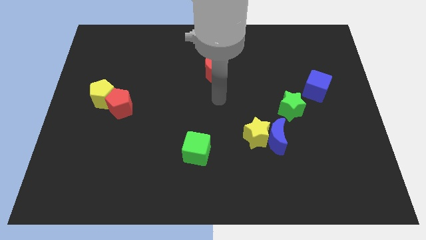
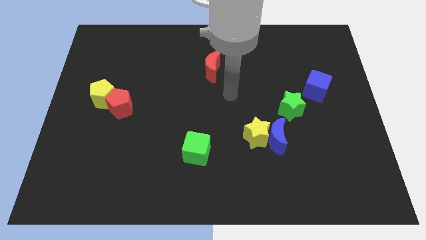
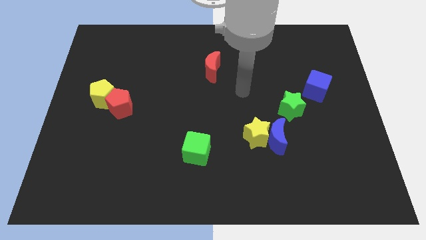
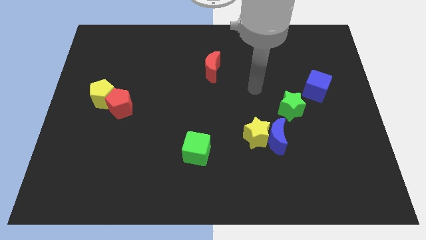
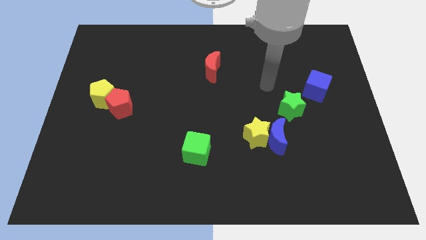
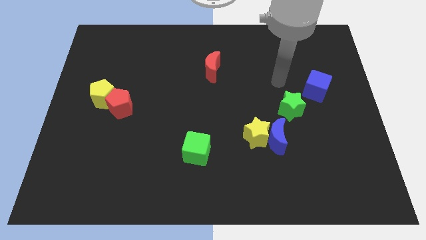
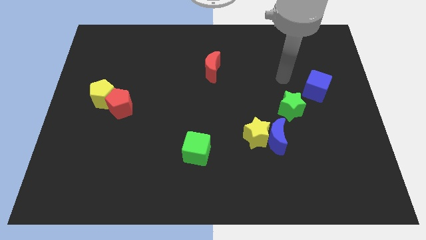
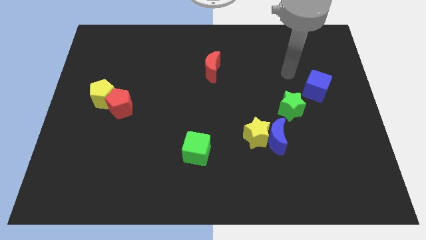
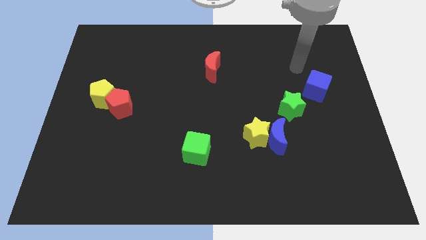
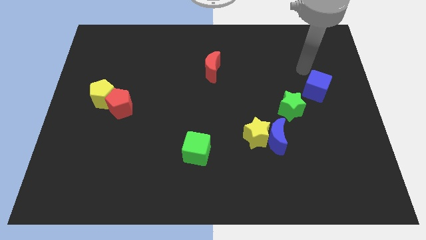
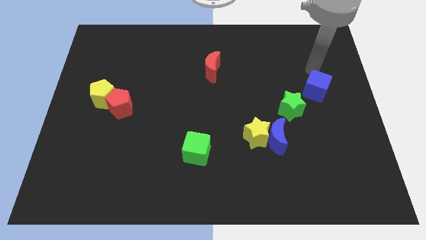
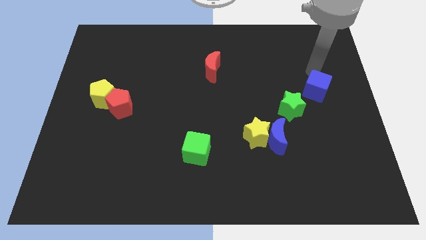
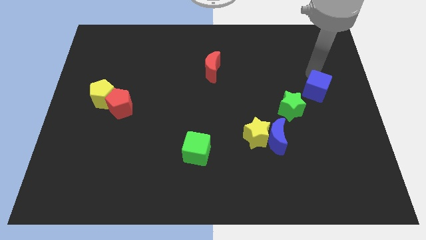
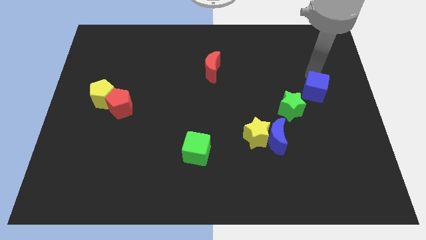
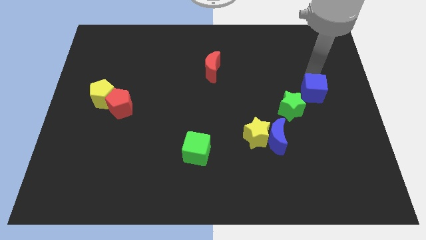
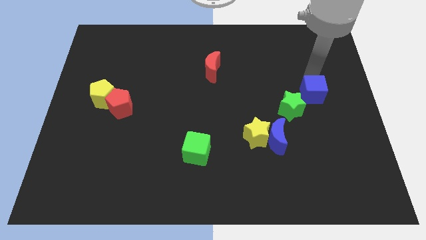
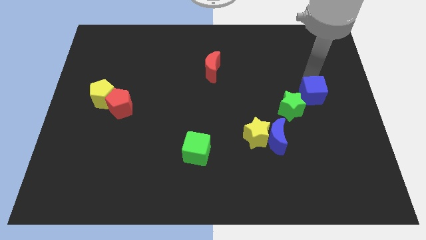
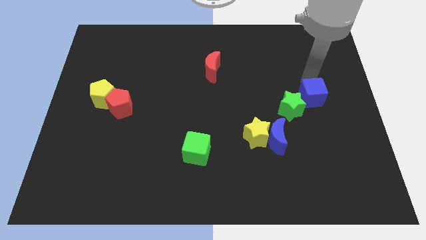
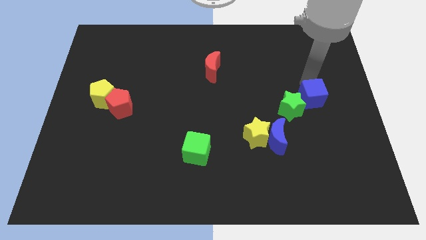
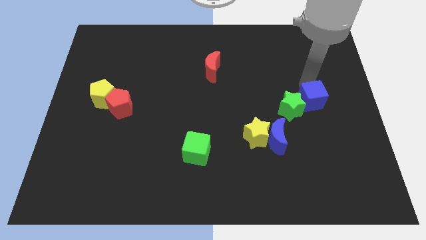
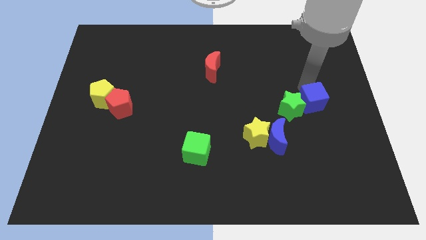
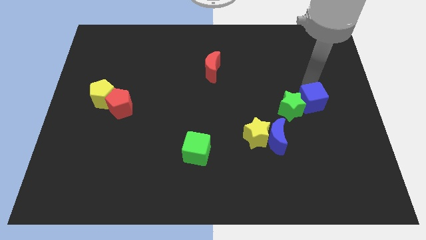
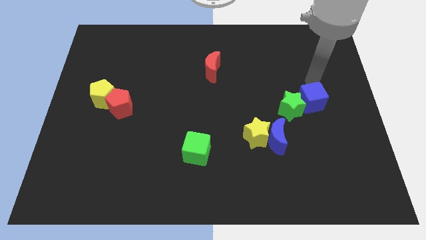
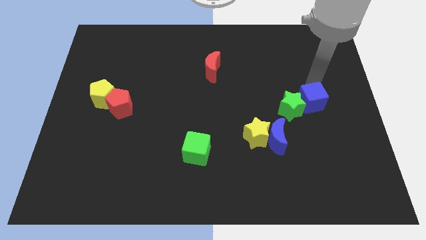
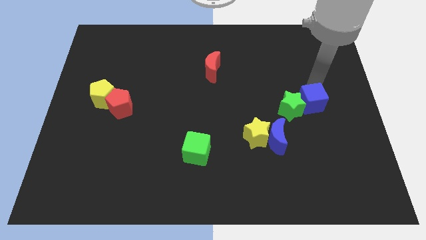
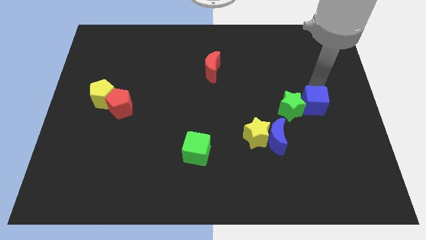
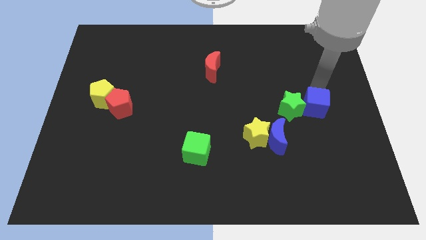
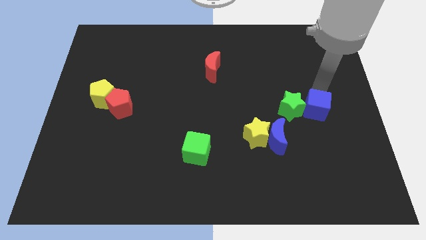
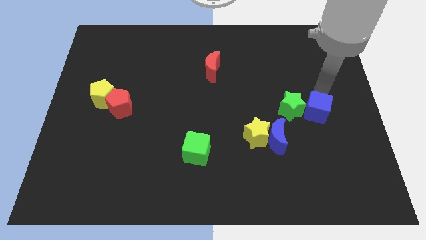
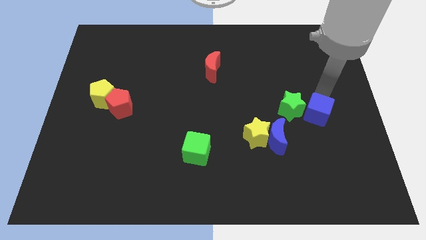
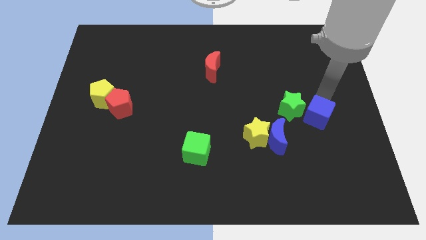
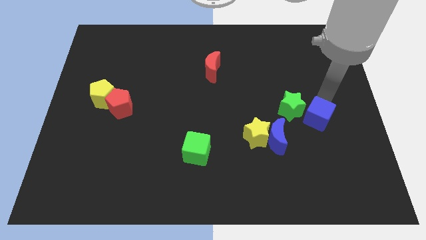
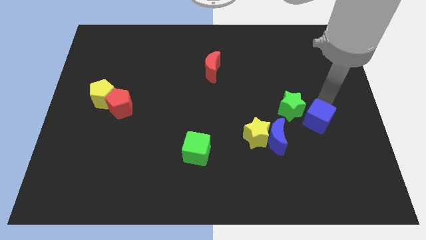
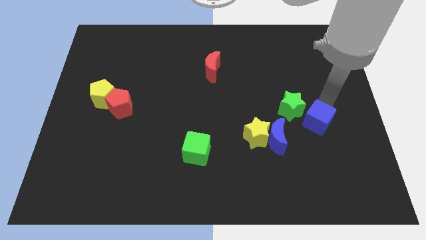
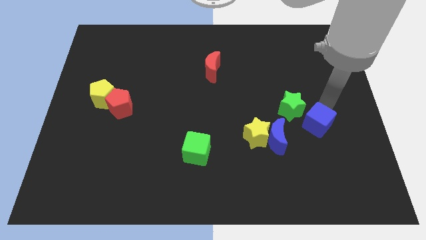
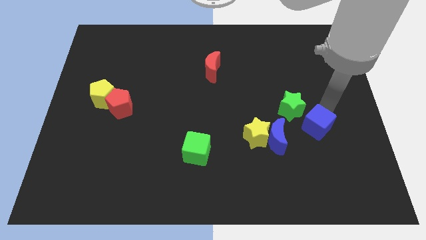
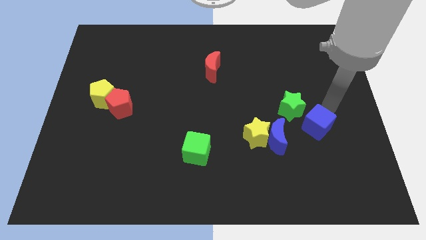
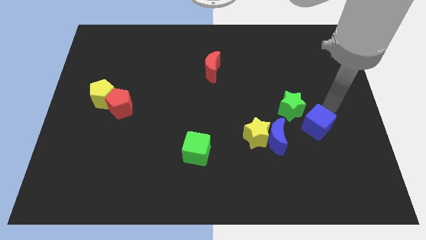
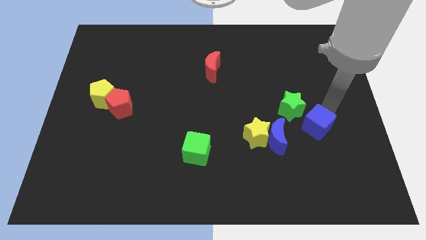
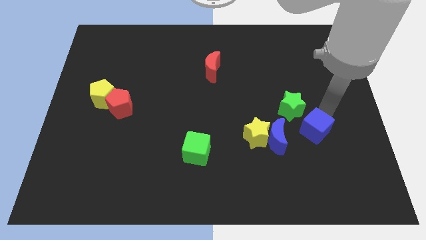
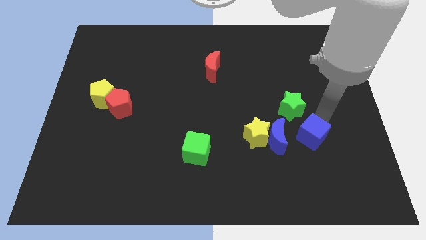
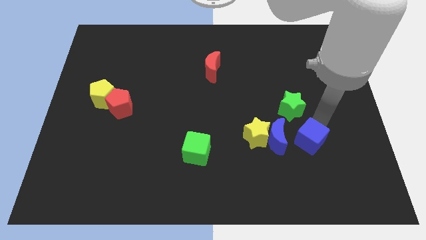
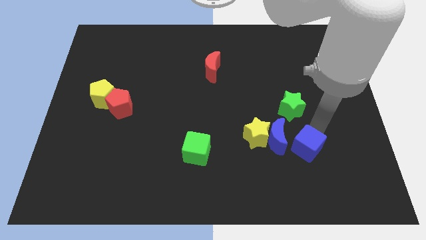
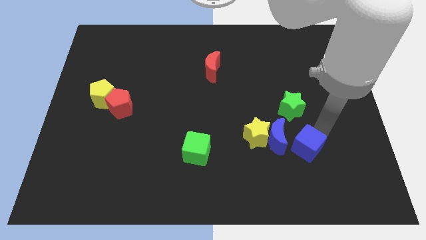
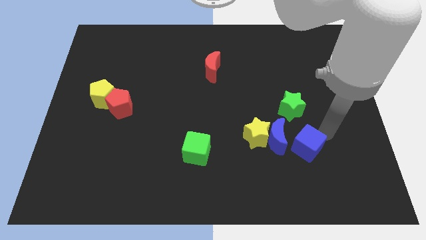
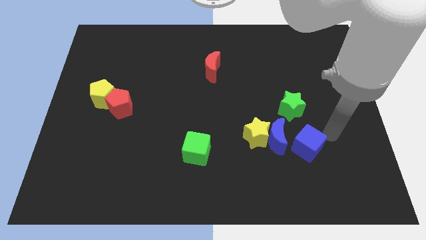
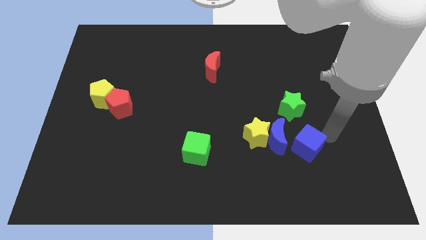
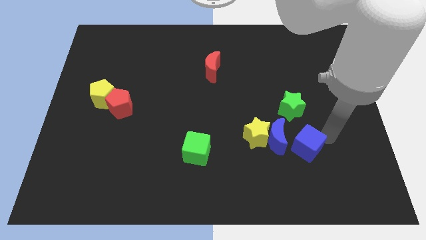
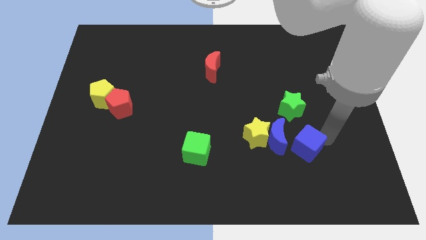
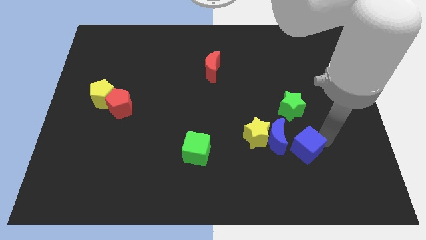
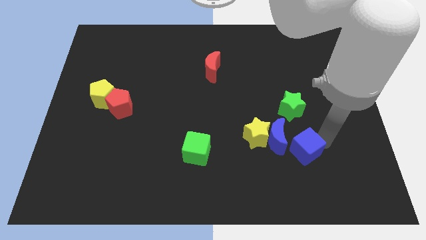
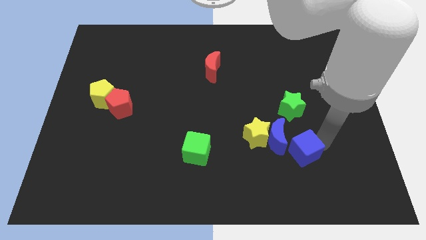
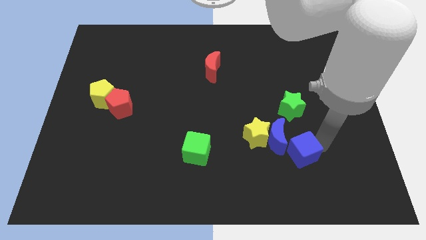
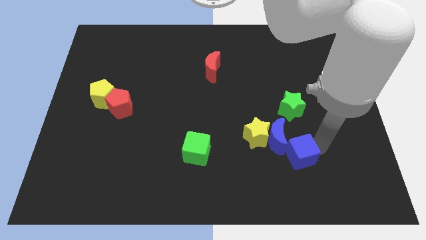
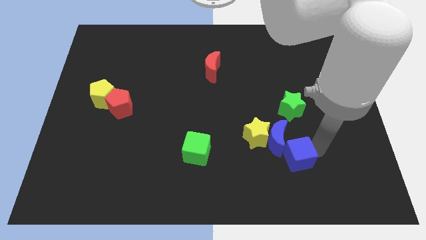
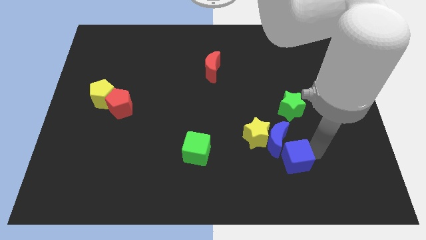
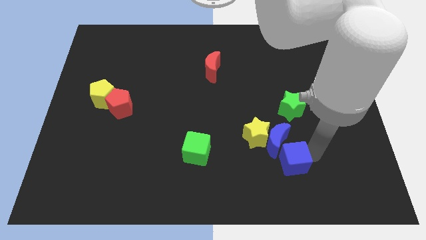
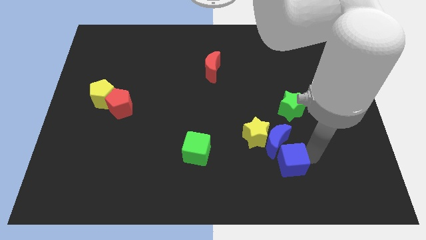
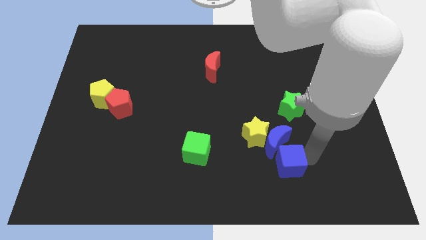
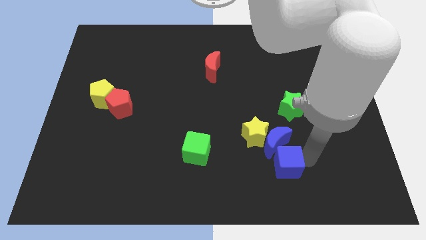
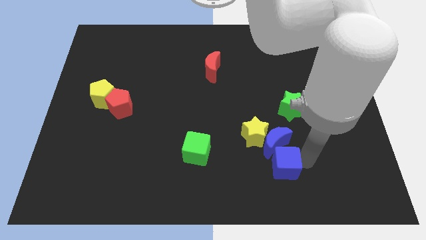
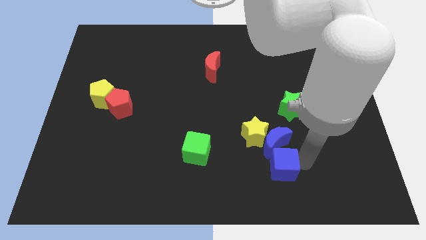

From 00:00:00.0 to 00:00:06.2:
move the blue cube downwards and to the left

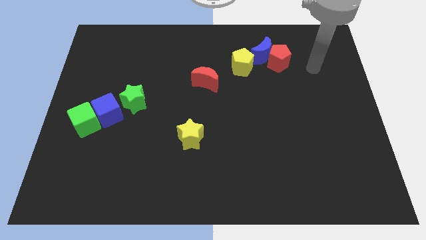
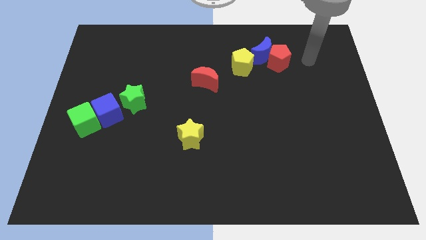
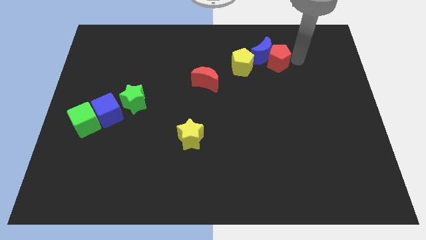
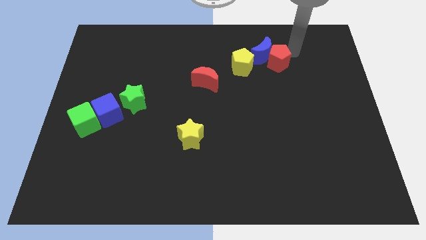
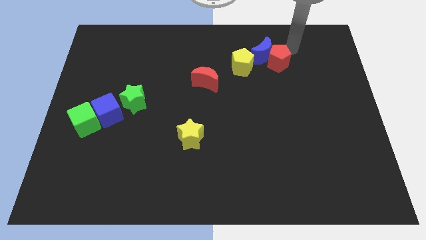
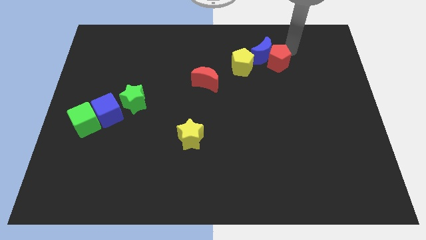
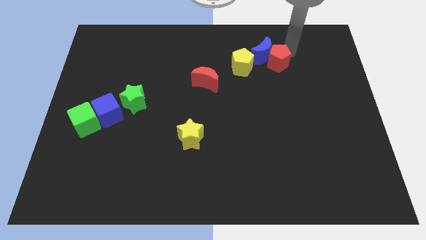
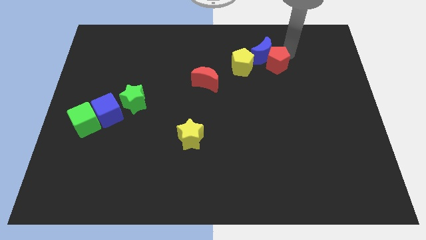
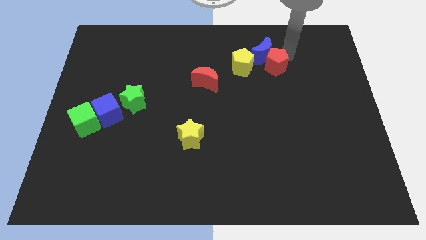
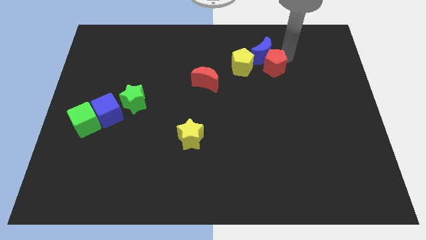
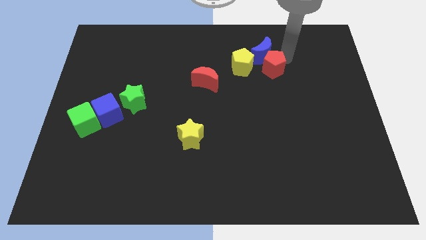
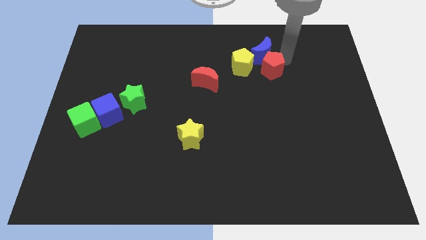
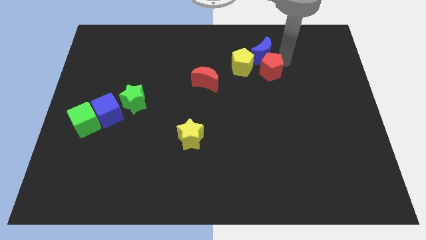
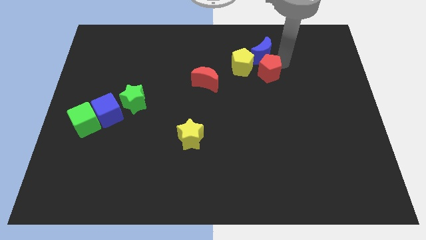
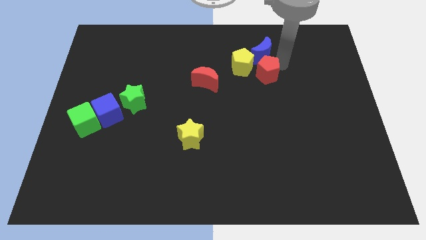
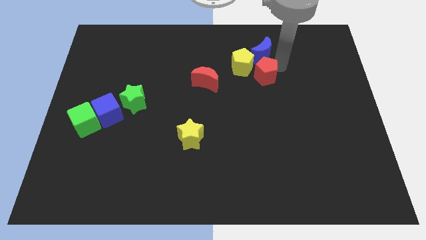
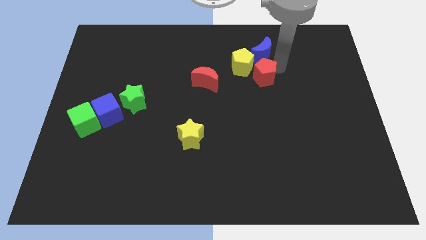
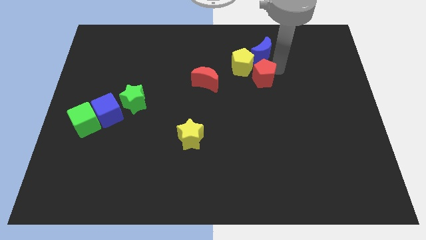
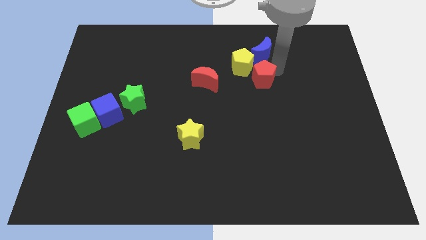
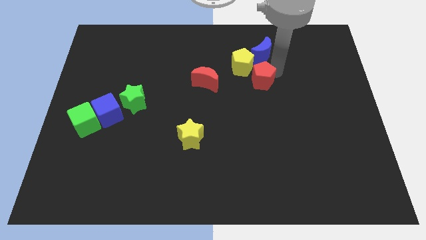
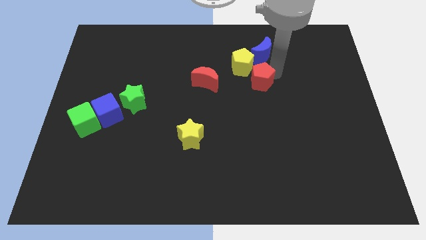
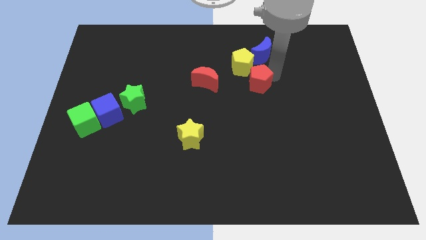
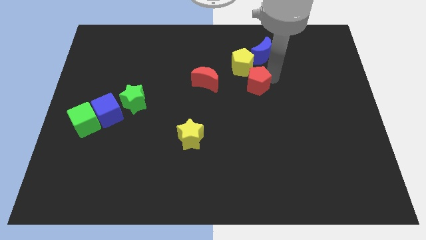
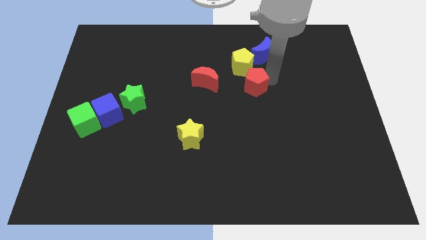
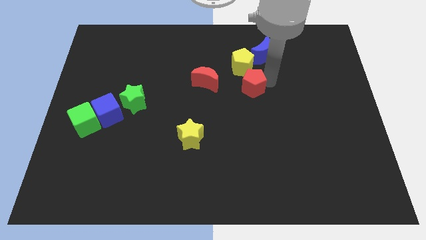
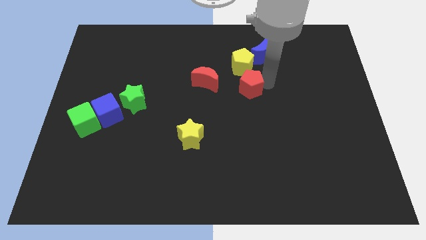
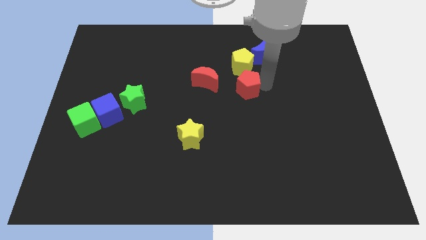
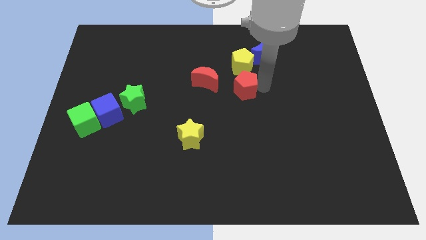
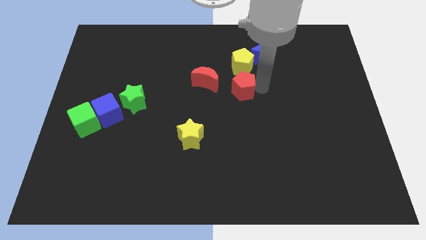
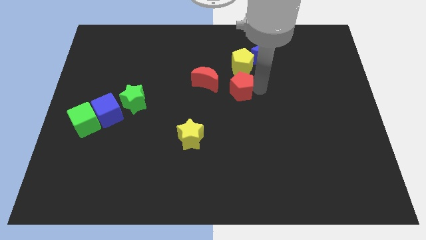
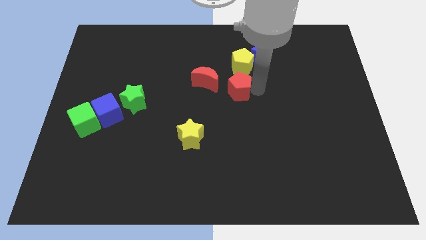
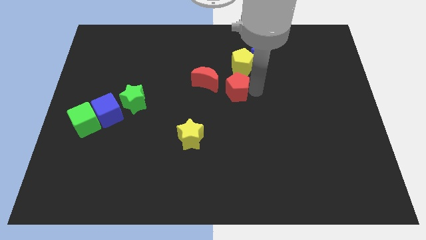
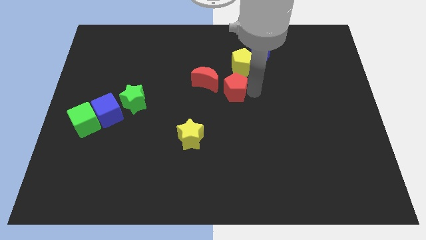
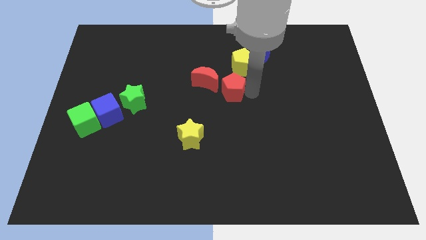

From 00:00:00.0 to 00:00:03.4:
move the red pentagon a little to the left
